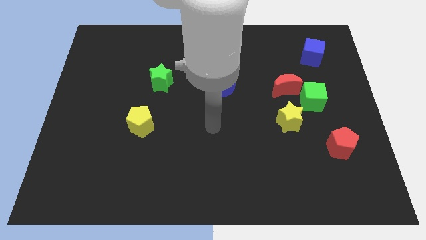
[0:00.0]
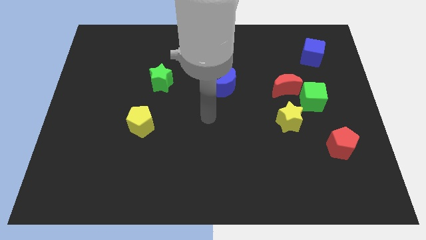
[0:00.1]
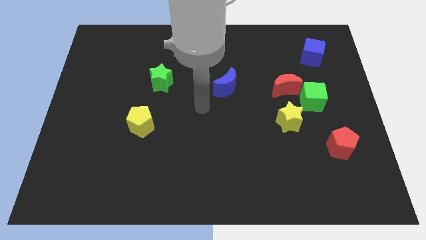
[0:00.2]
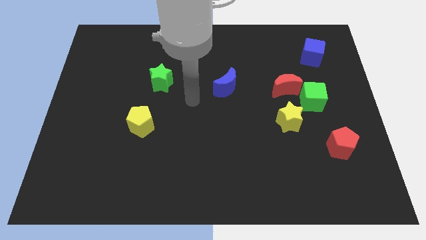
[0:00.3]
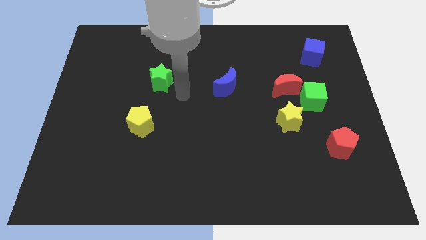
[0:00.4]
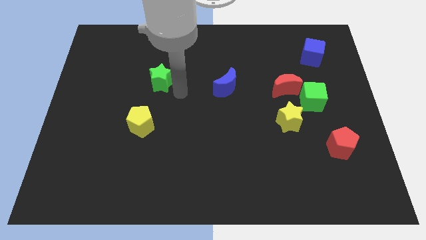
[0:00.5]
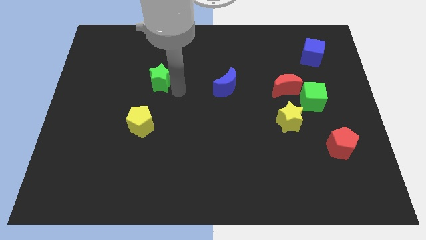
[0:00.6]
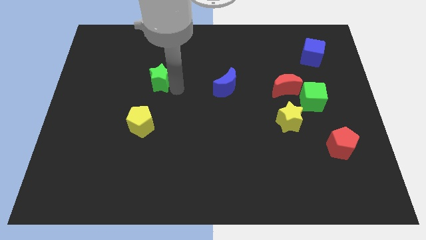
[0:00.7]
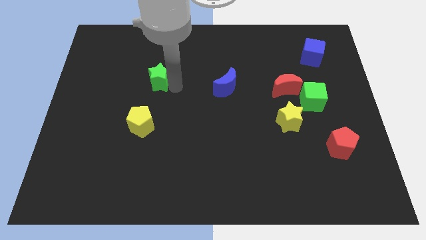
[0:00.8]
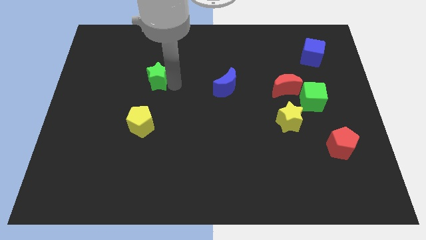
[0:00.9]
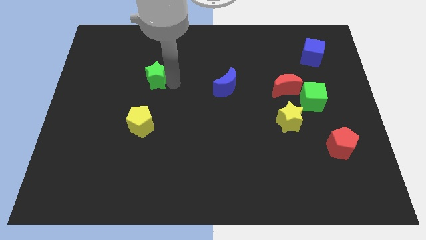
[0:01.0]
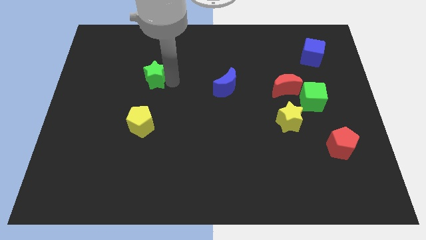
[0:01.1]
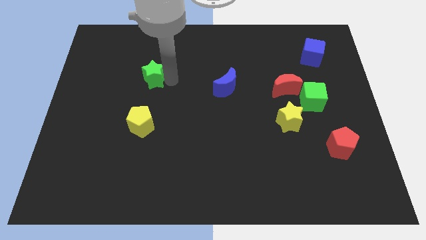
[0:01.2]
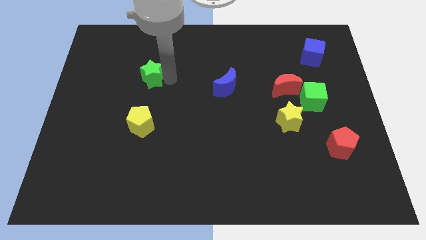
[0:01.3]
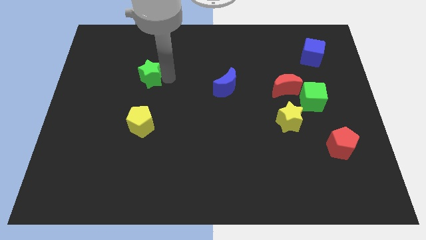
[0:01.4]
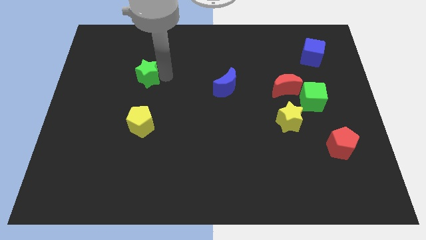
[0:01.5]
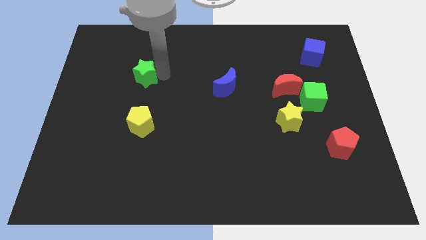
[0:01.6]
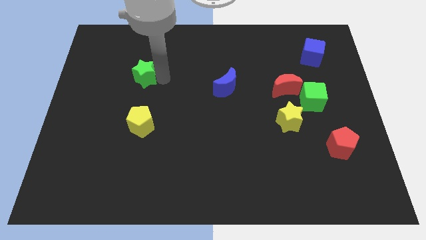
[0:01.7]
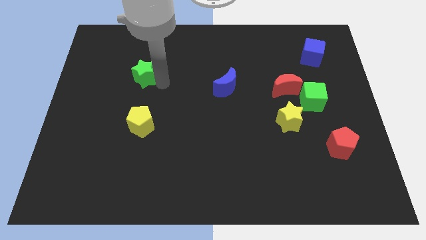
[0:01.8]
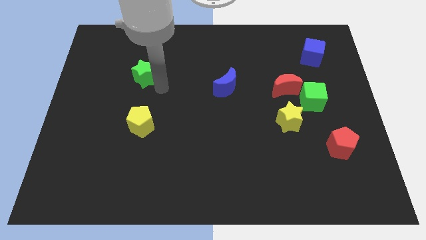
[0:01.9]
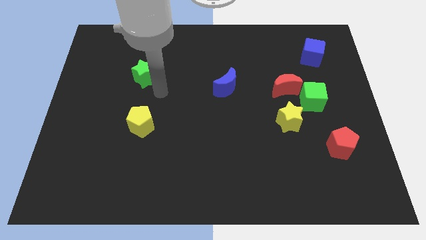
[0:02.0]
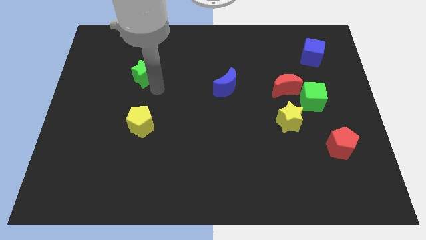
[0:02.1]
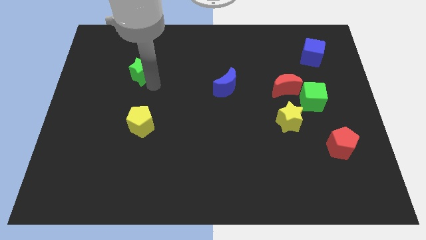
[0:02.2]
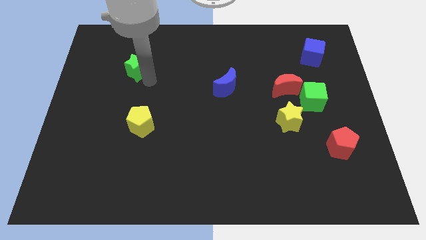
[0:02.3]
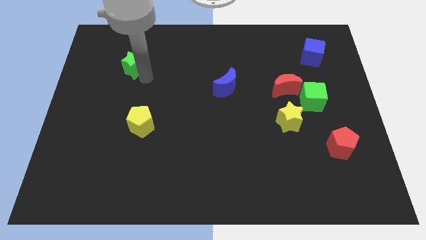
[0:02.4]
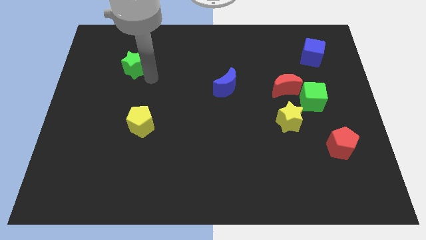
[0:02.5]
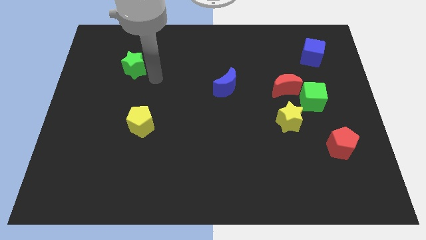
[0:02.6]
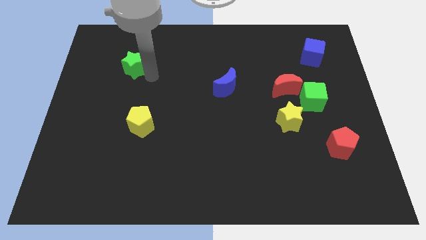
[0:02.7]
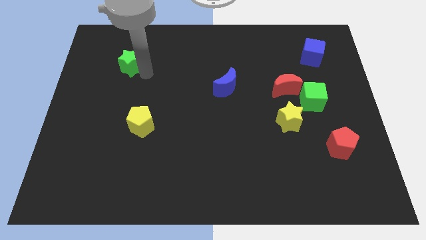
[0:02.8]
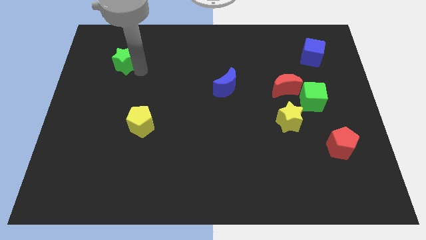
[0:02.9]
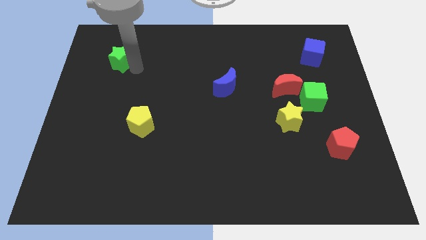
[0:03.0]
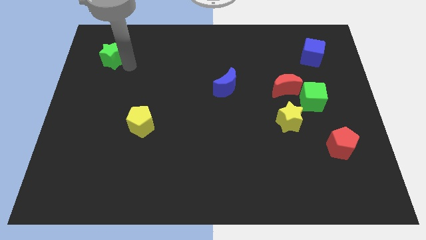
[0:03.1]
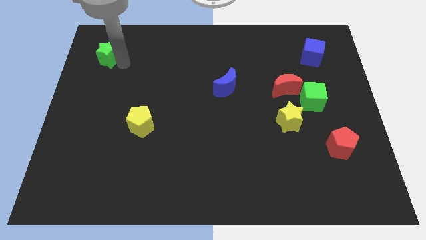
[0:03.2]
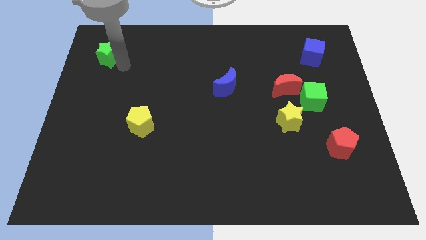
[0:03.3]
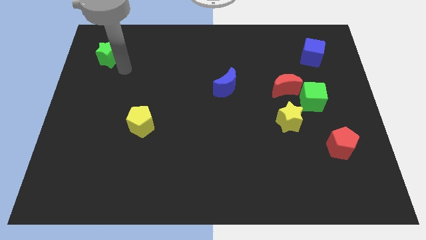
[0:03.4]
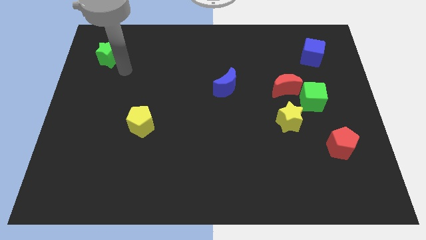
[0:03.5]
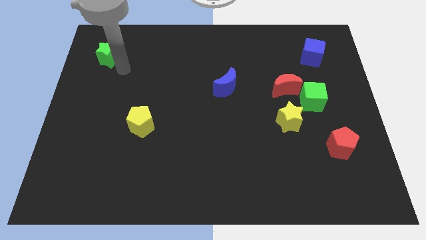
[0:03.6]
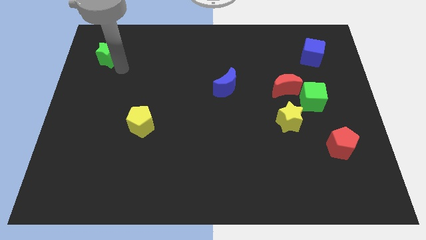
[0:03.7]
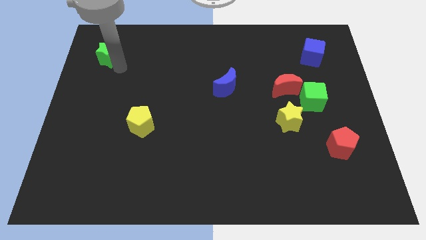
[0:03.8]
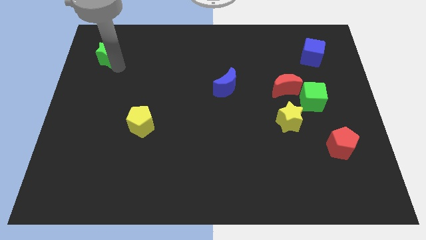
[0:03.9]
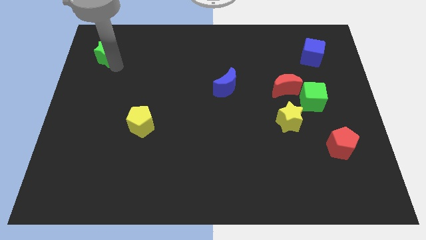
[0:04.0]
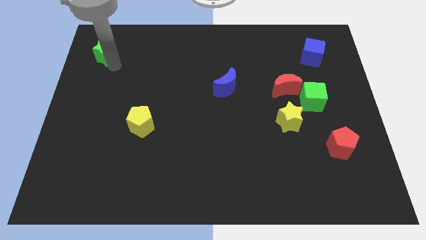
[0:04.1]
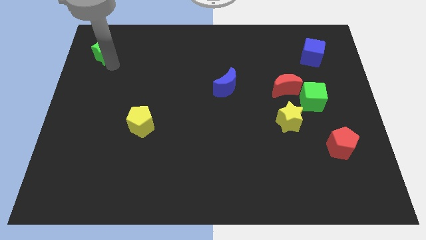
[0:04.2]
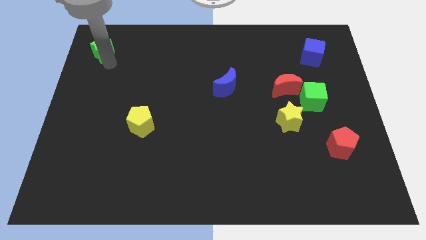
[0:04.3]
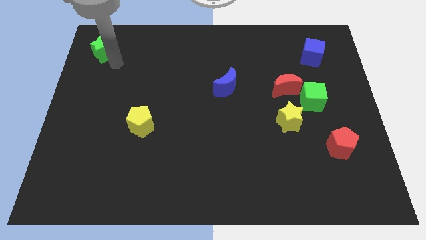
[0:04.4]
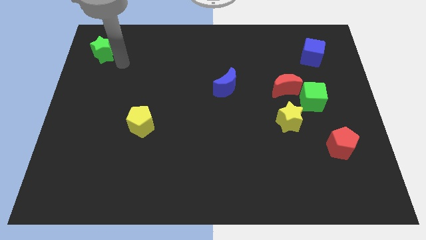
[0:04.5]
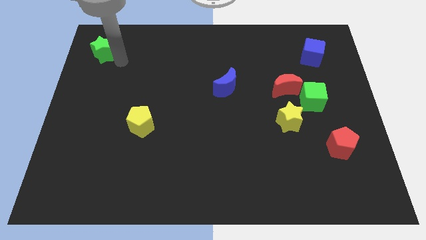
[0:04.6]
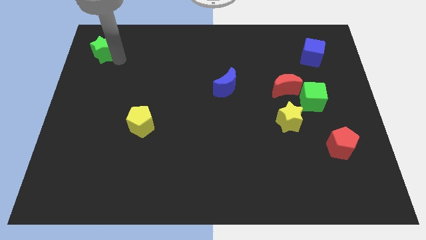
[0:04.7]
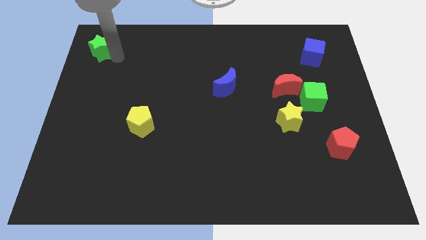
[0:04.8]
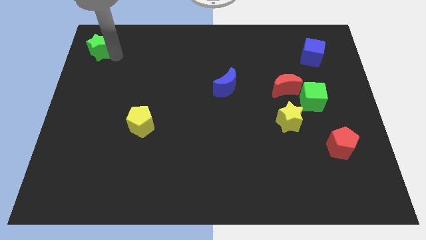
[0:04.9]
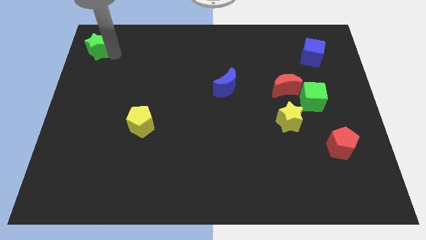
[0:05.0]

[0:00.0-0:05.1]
push the green star to the top left corner

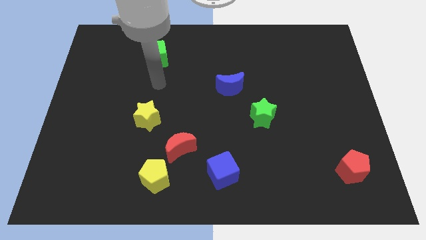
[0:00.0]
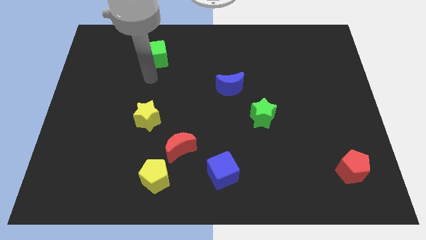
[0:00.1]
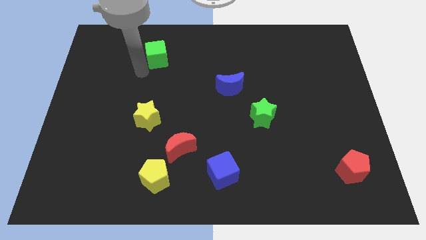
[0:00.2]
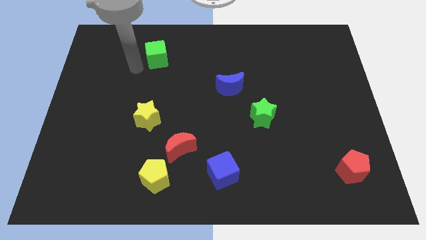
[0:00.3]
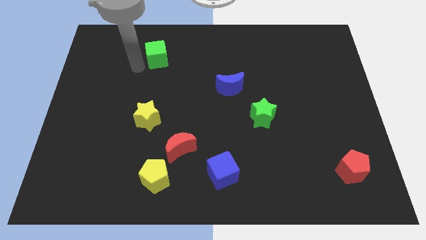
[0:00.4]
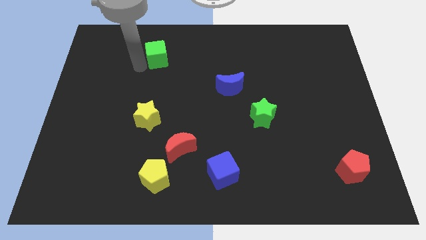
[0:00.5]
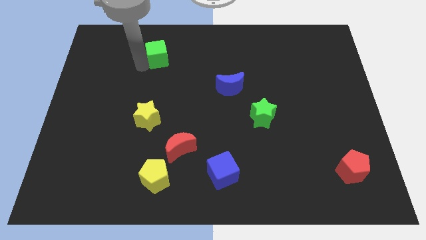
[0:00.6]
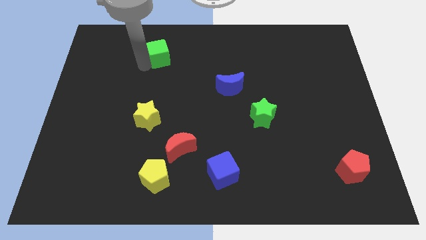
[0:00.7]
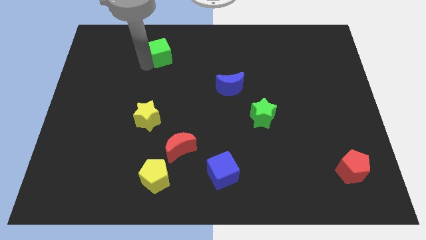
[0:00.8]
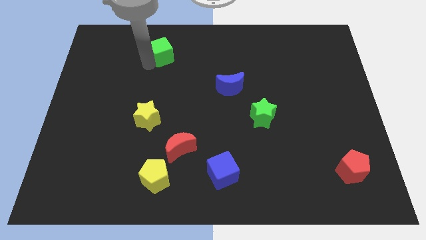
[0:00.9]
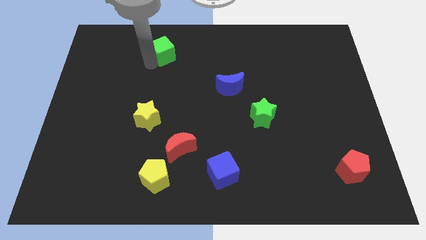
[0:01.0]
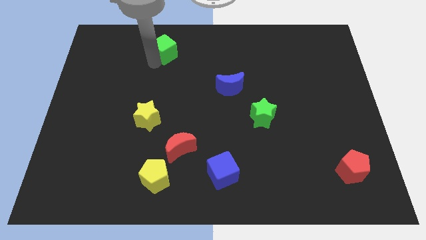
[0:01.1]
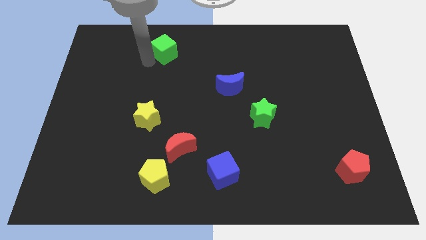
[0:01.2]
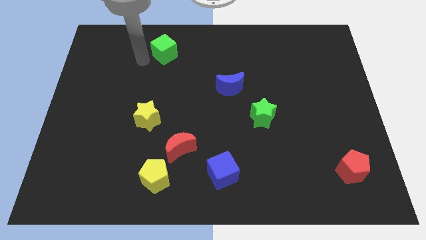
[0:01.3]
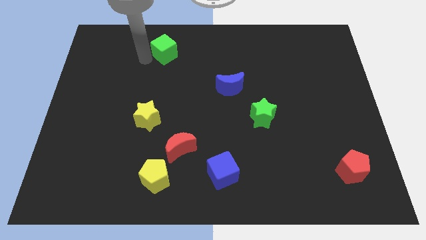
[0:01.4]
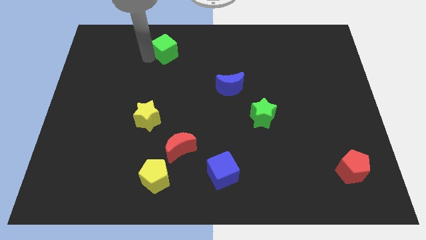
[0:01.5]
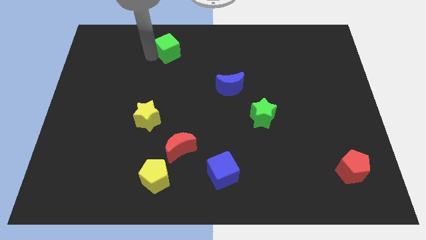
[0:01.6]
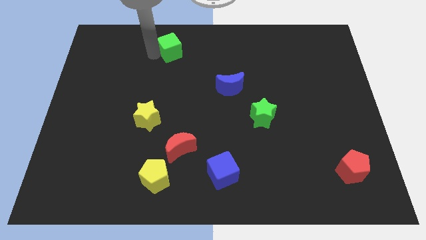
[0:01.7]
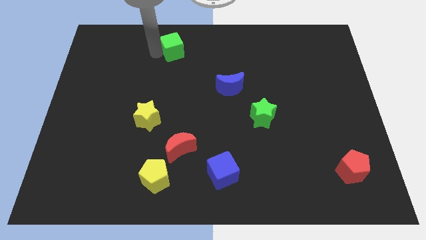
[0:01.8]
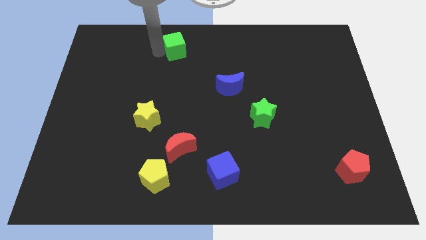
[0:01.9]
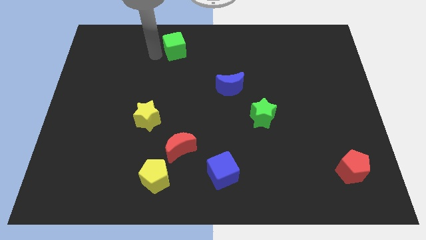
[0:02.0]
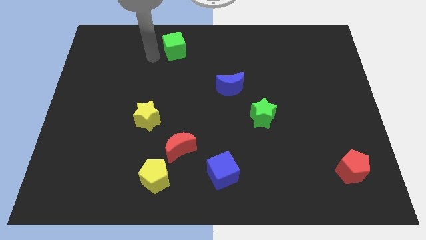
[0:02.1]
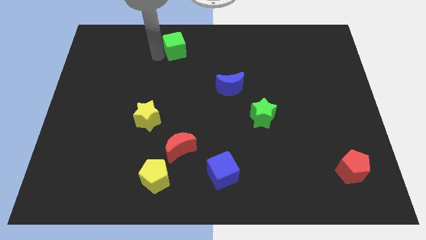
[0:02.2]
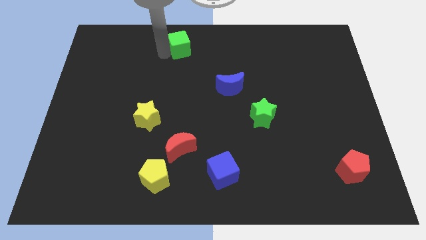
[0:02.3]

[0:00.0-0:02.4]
put the green cube to the top
